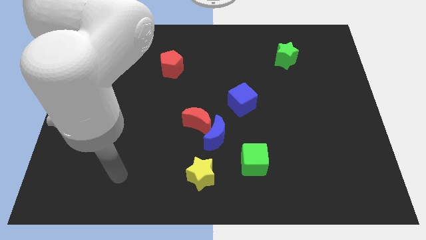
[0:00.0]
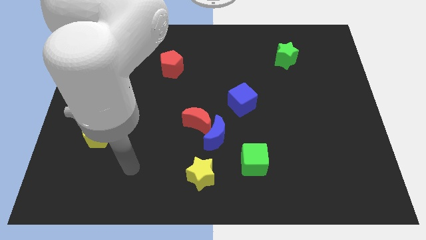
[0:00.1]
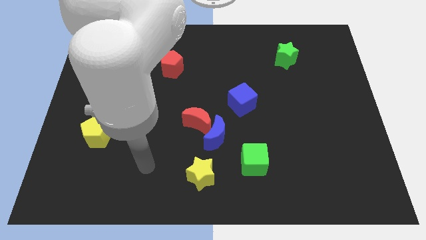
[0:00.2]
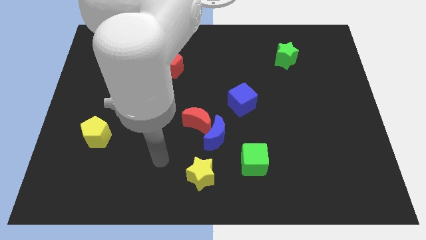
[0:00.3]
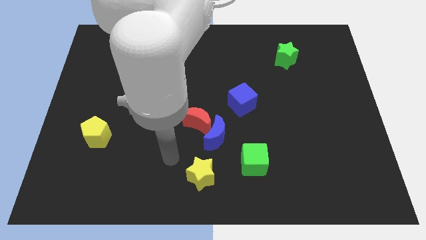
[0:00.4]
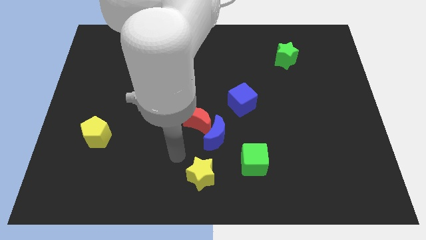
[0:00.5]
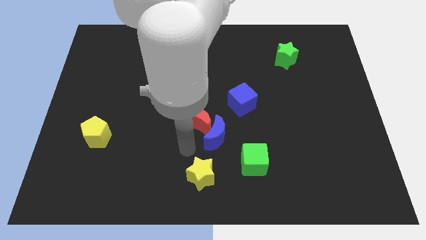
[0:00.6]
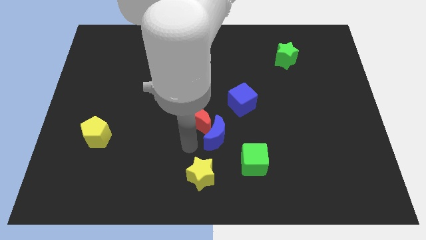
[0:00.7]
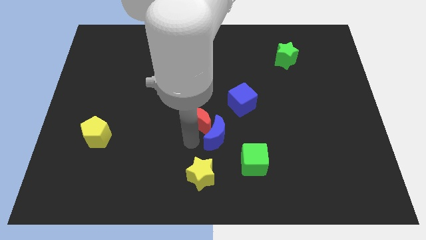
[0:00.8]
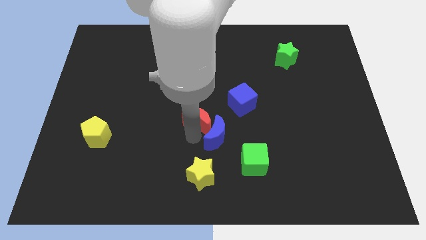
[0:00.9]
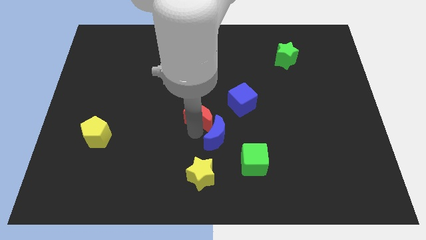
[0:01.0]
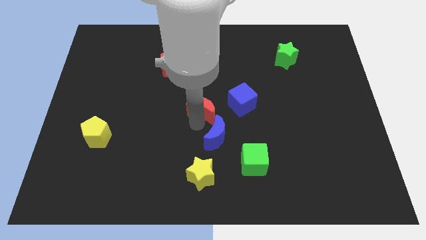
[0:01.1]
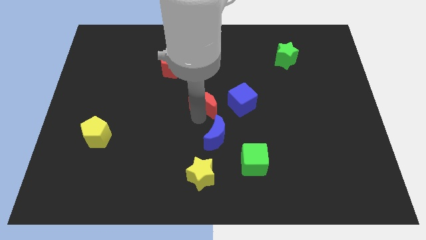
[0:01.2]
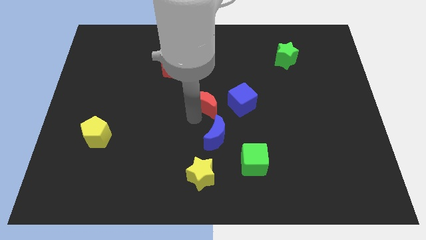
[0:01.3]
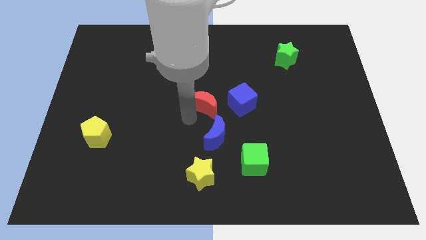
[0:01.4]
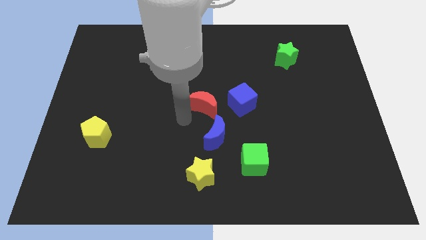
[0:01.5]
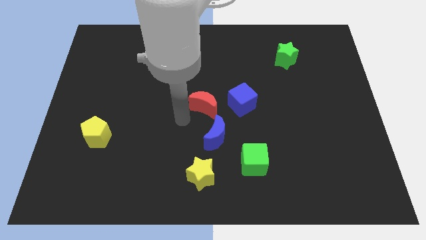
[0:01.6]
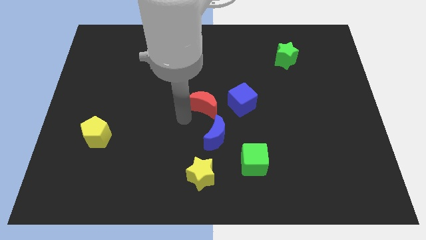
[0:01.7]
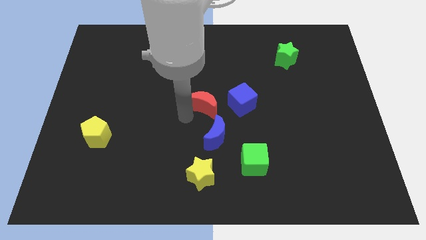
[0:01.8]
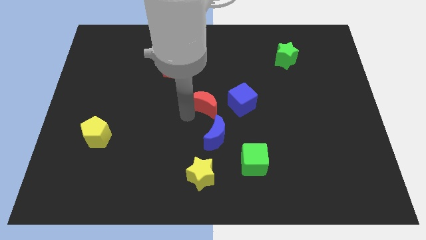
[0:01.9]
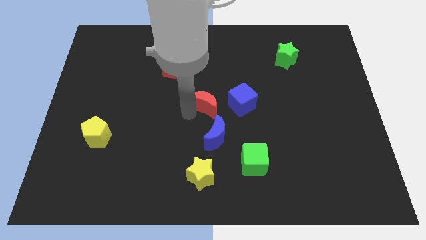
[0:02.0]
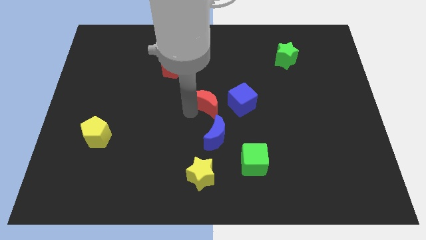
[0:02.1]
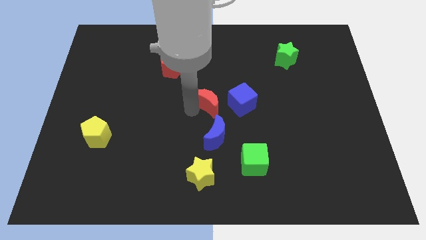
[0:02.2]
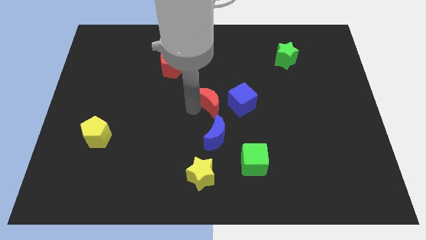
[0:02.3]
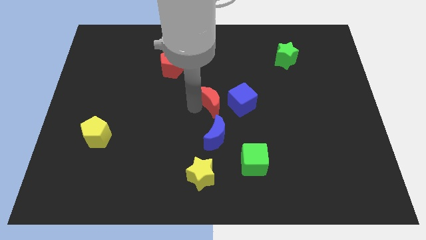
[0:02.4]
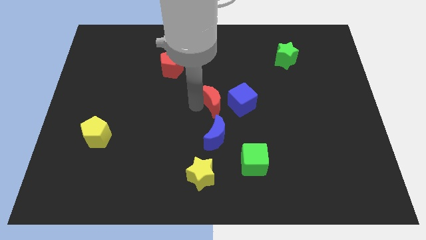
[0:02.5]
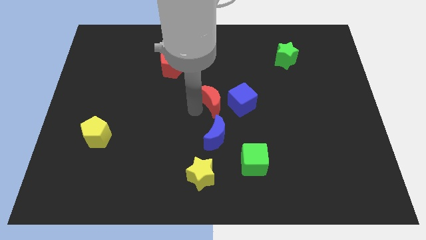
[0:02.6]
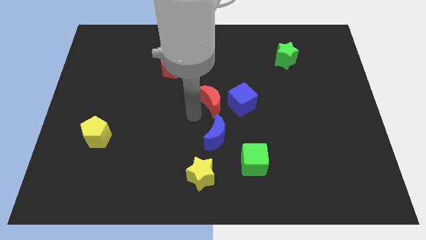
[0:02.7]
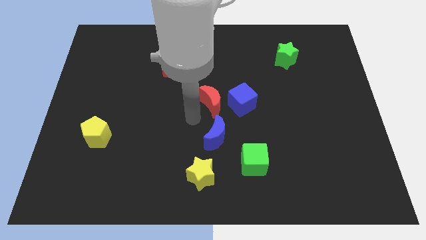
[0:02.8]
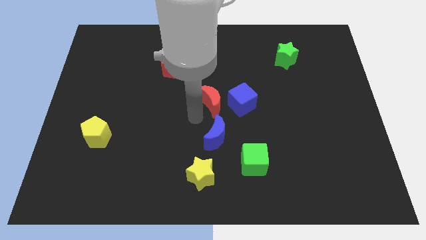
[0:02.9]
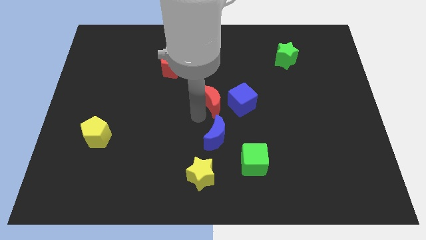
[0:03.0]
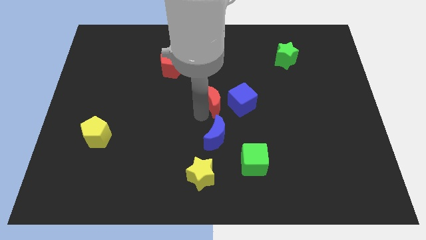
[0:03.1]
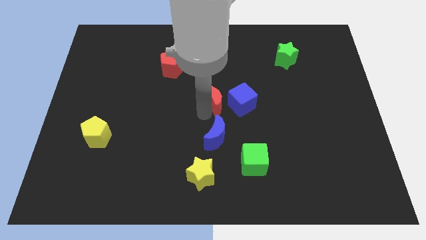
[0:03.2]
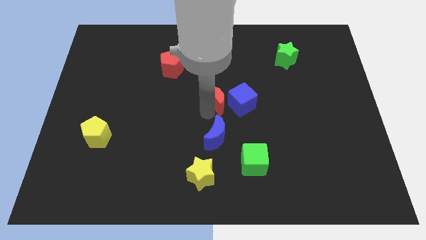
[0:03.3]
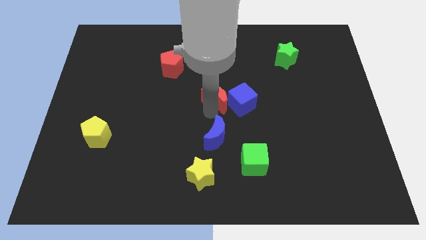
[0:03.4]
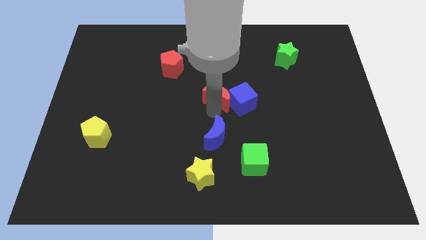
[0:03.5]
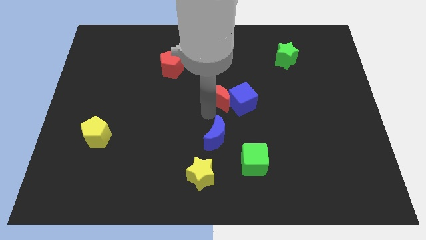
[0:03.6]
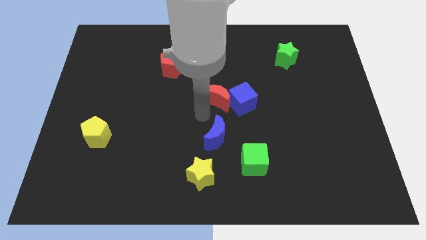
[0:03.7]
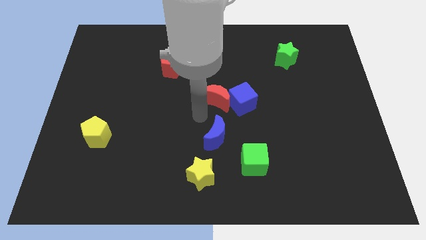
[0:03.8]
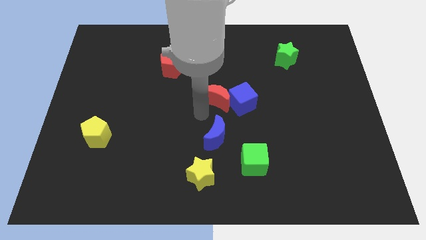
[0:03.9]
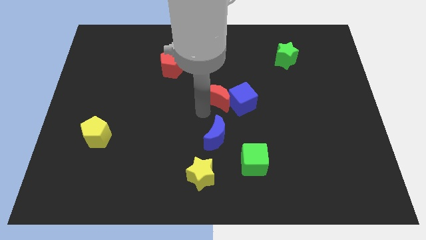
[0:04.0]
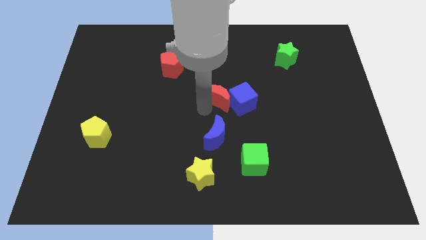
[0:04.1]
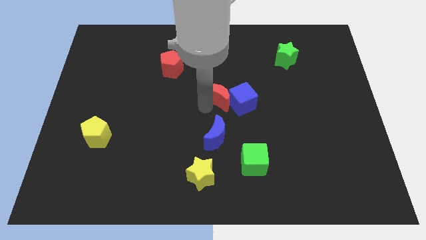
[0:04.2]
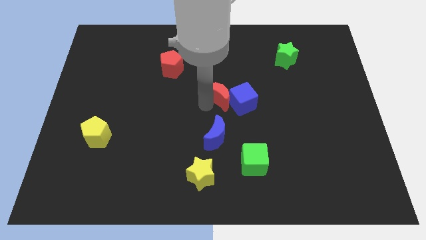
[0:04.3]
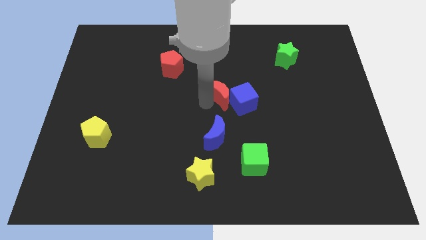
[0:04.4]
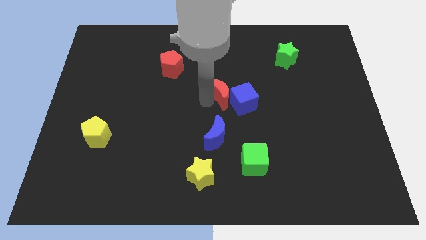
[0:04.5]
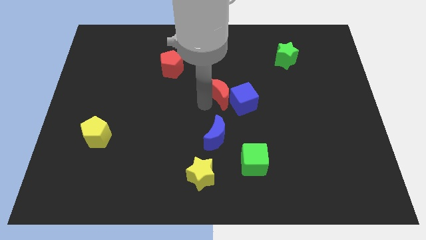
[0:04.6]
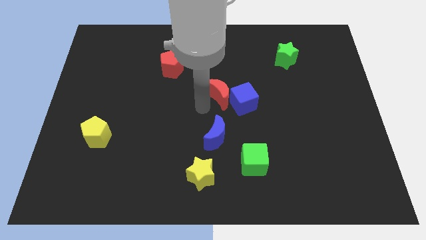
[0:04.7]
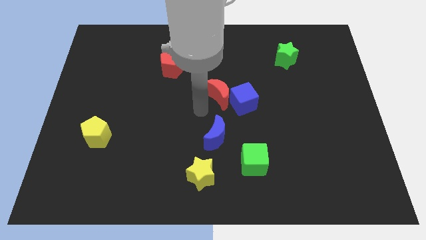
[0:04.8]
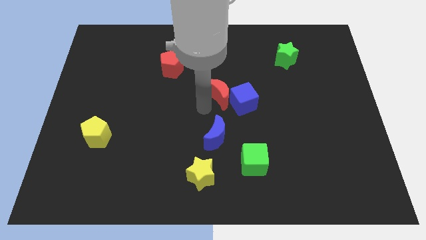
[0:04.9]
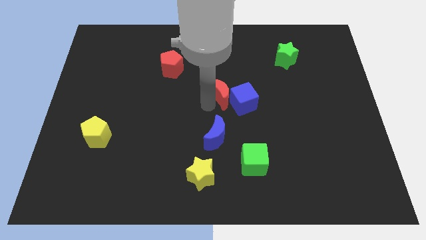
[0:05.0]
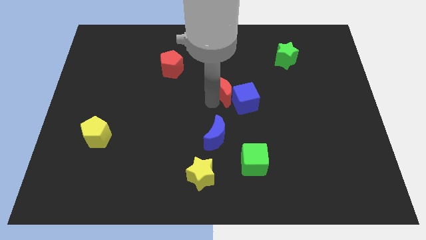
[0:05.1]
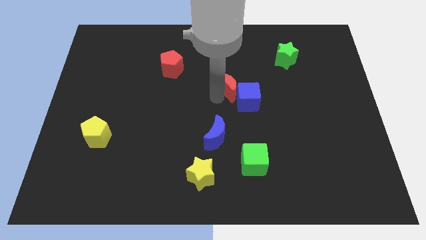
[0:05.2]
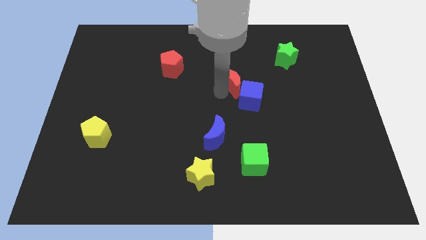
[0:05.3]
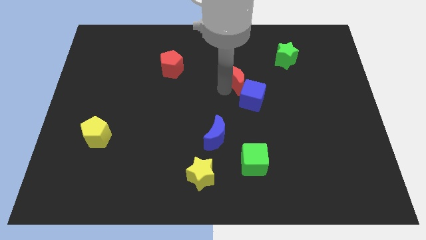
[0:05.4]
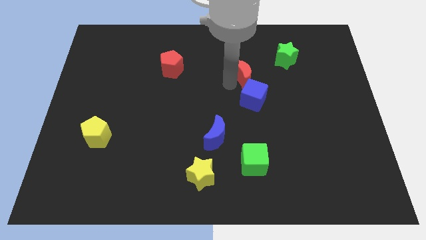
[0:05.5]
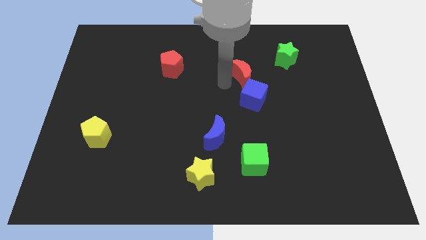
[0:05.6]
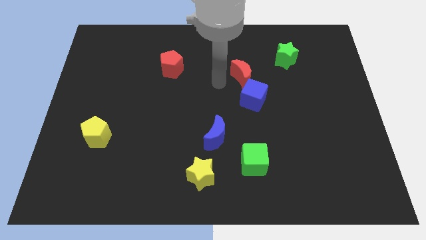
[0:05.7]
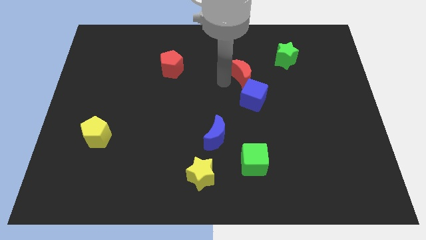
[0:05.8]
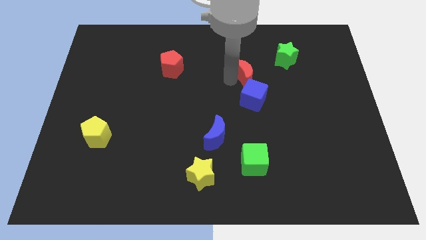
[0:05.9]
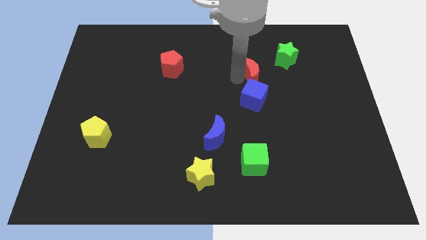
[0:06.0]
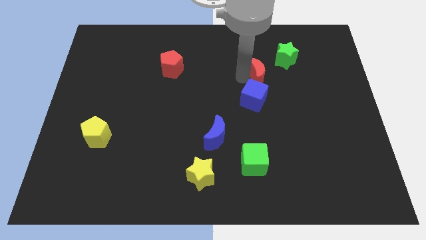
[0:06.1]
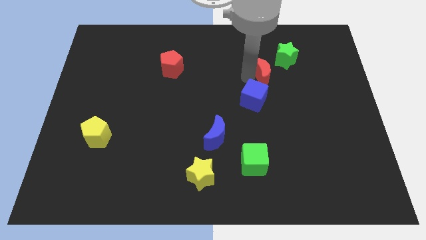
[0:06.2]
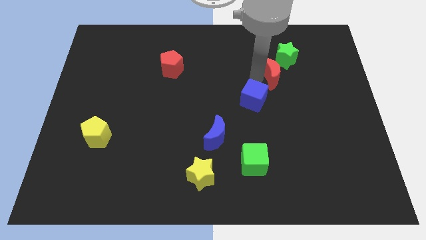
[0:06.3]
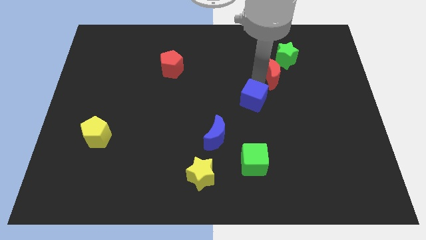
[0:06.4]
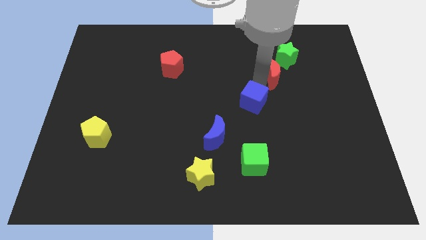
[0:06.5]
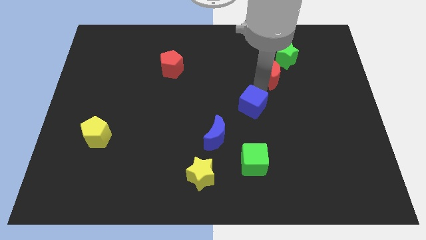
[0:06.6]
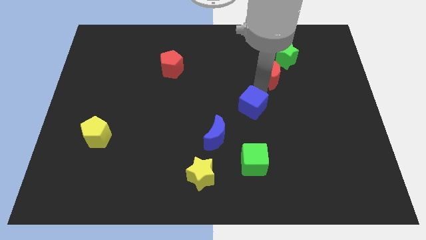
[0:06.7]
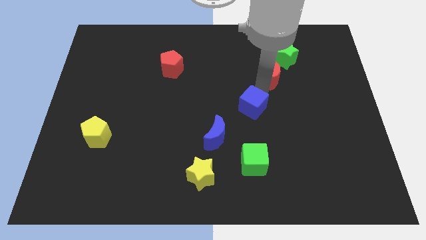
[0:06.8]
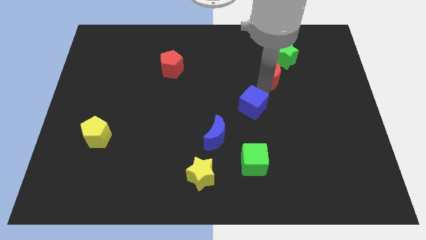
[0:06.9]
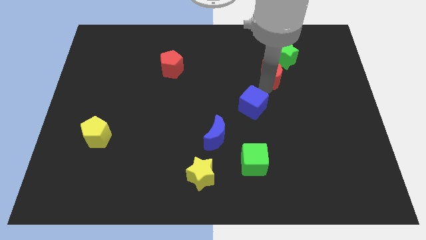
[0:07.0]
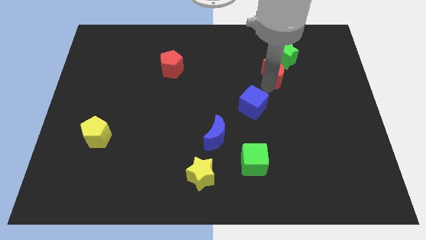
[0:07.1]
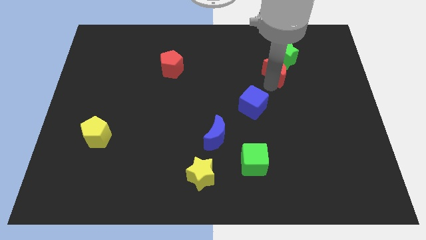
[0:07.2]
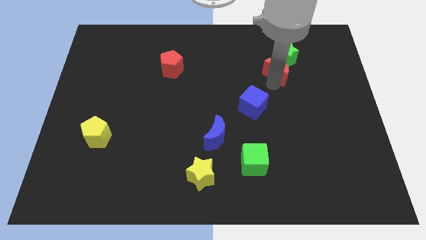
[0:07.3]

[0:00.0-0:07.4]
move the red moon towards the green star
